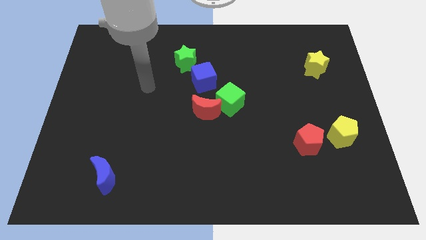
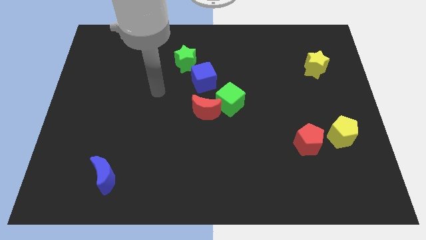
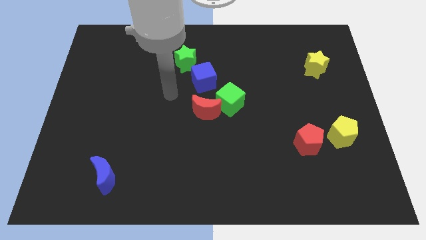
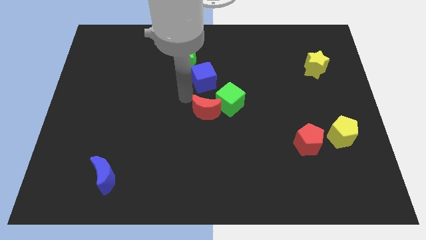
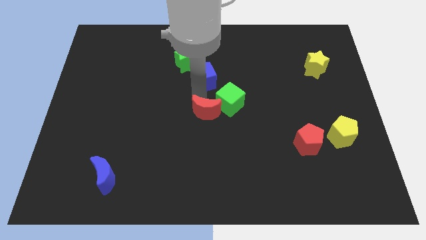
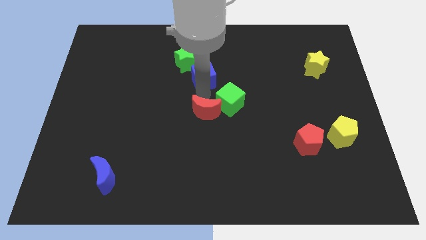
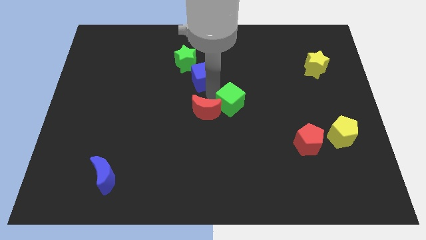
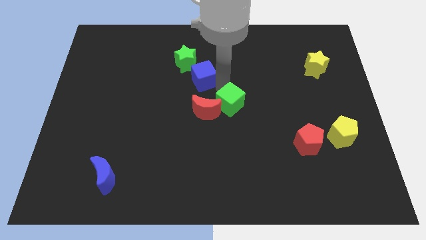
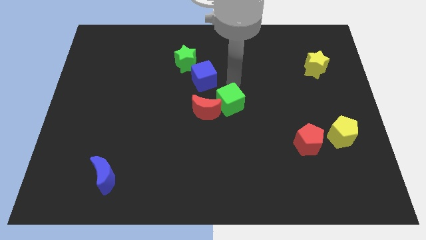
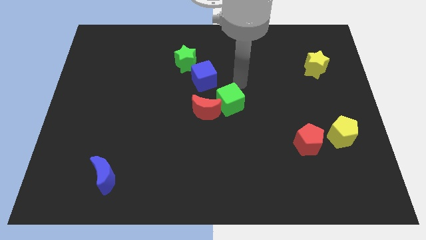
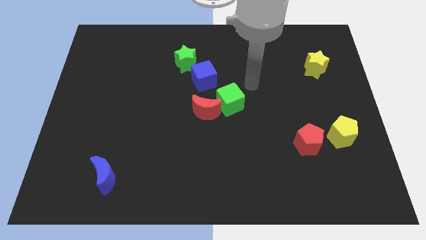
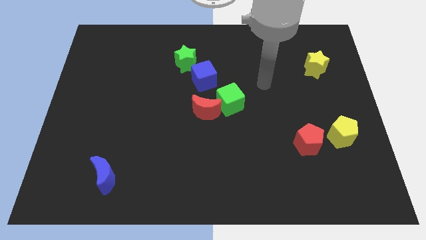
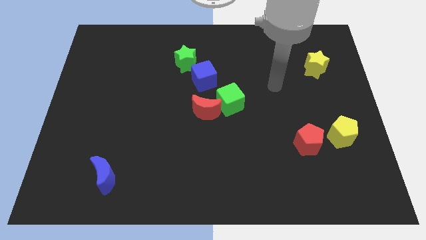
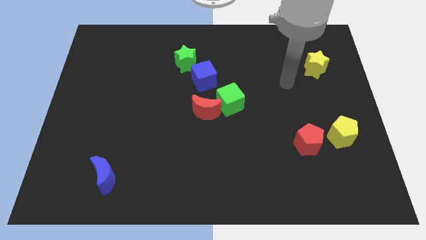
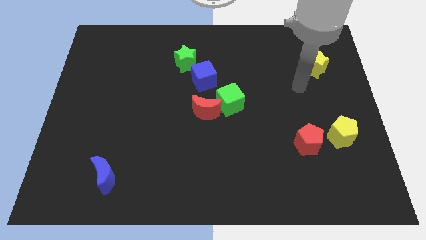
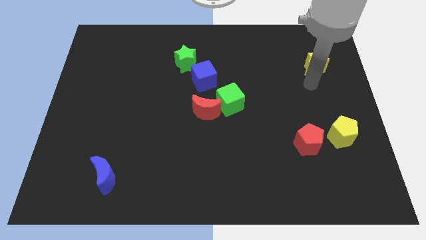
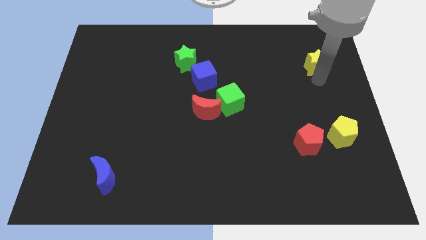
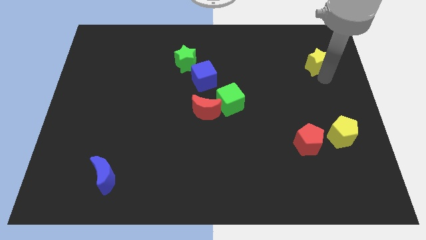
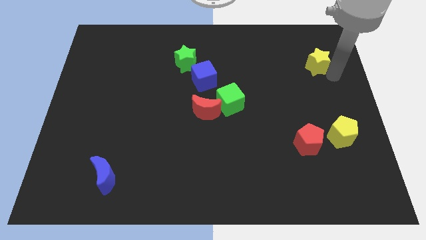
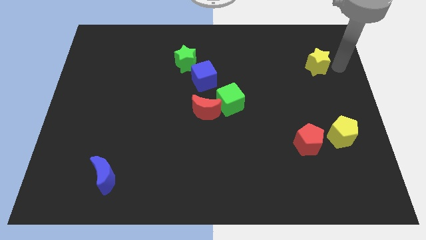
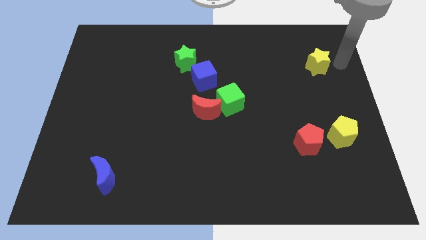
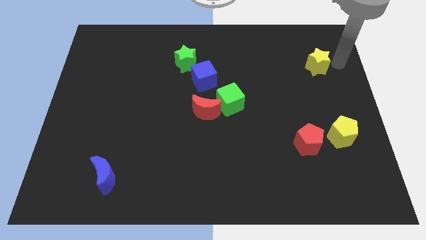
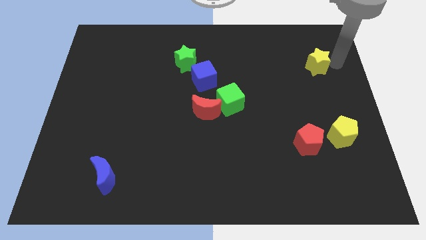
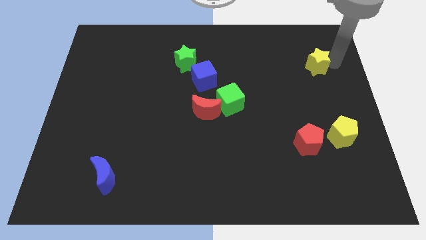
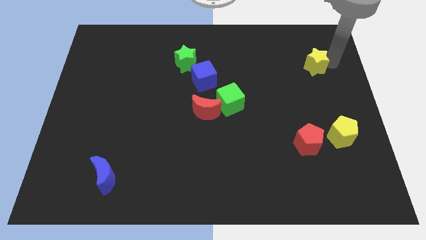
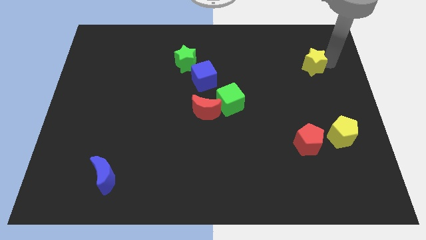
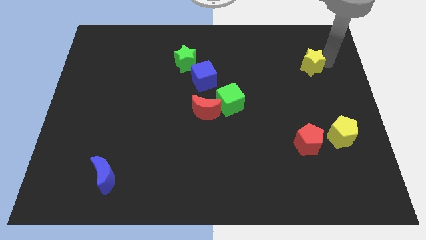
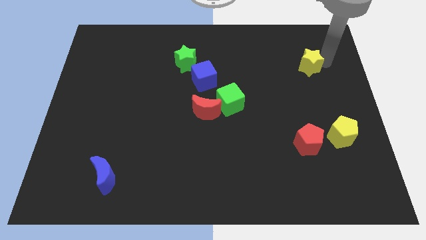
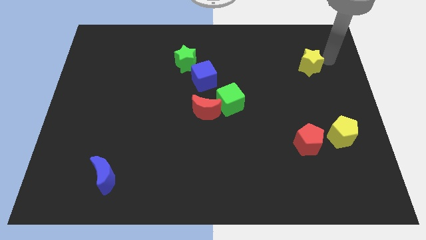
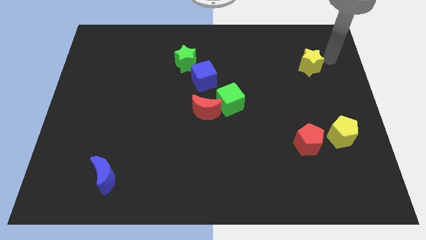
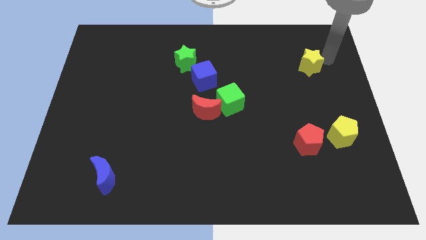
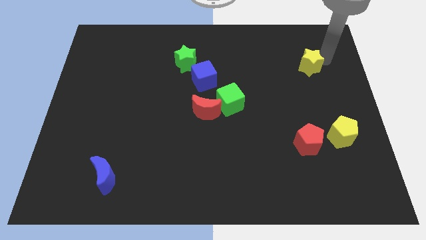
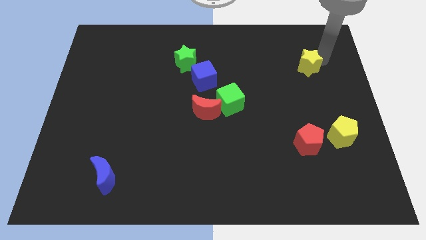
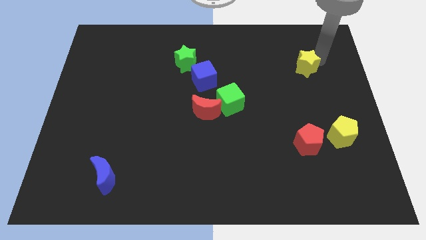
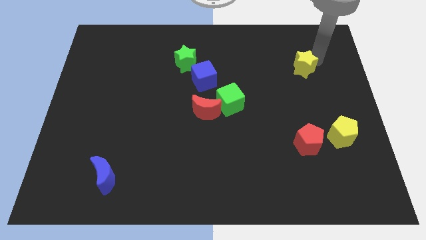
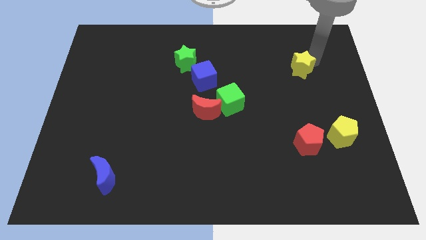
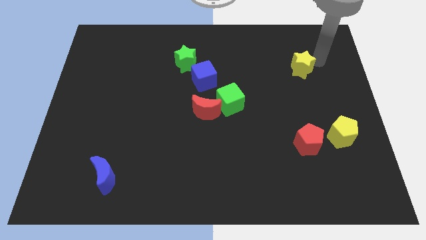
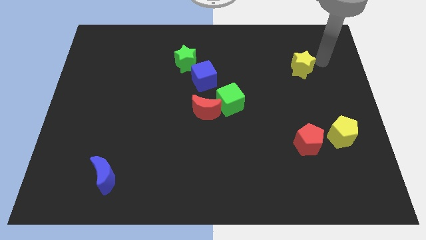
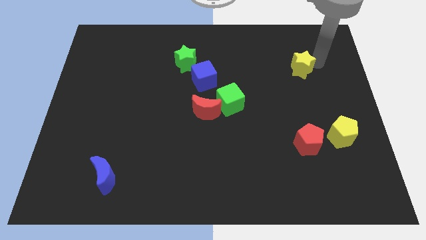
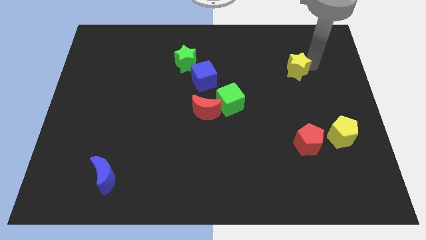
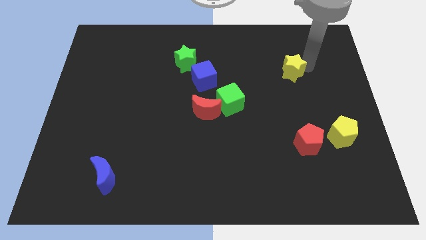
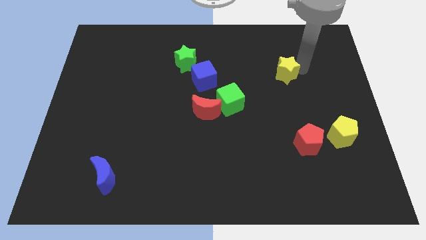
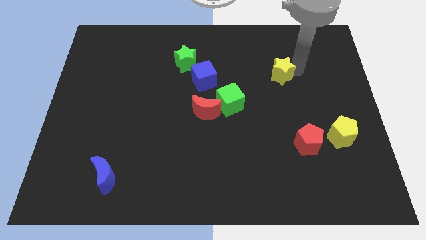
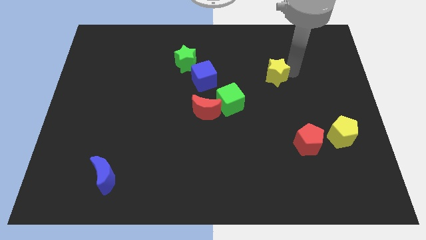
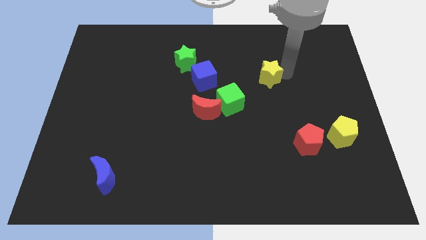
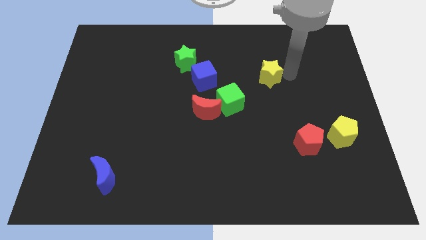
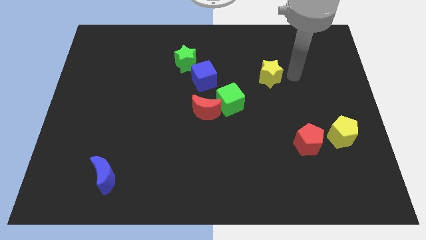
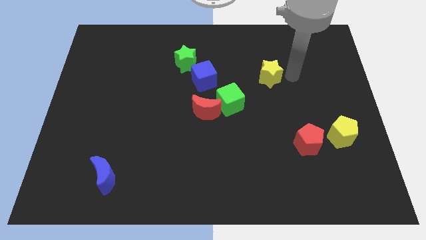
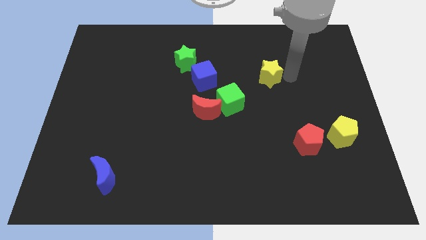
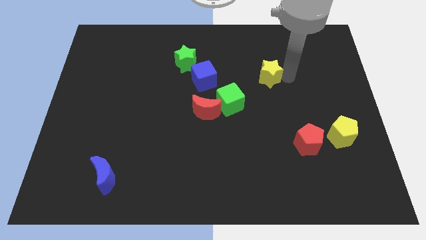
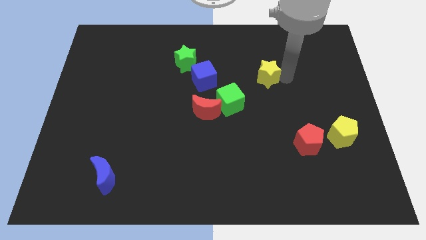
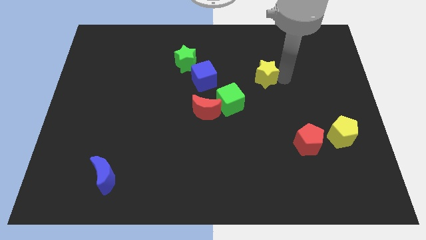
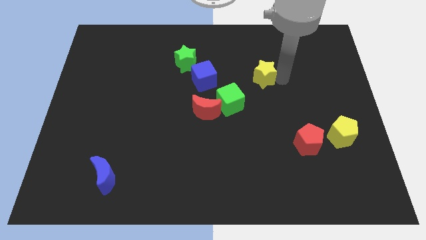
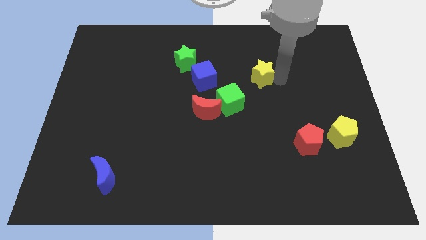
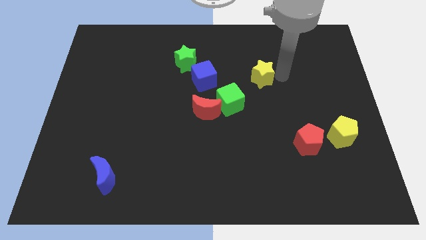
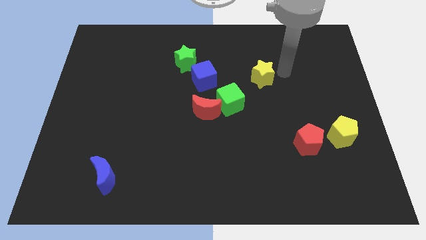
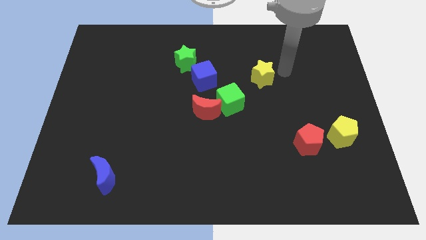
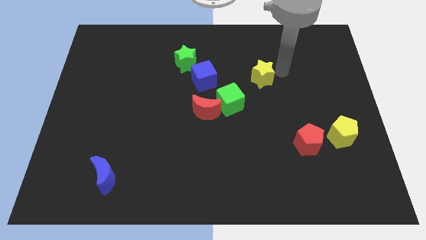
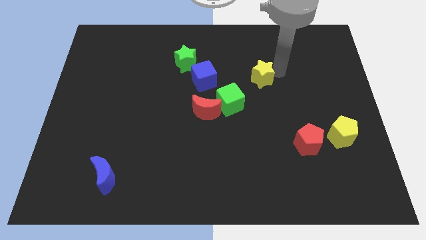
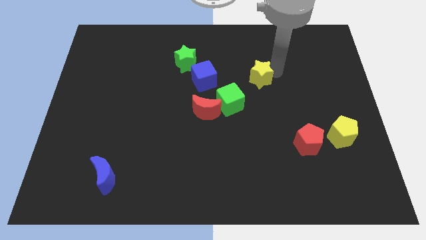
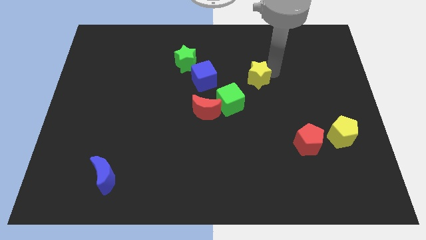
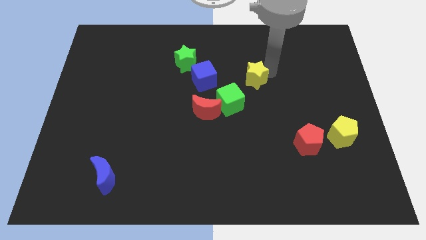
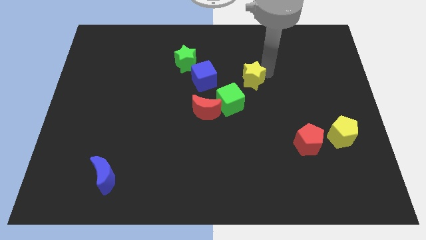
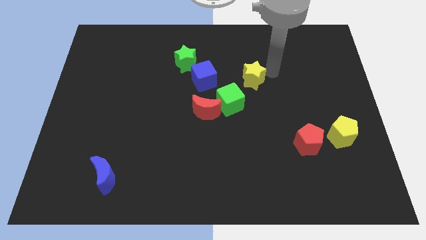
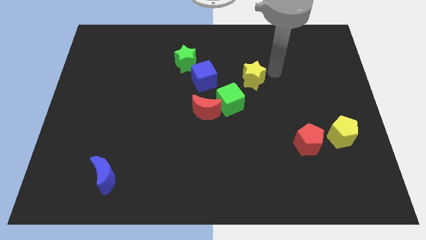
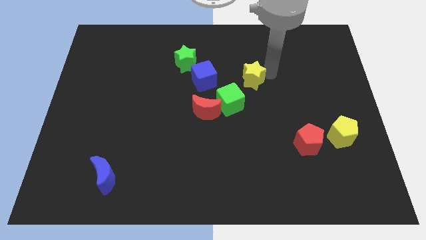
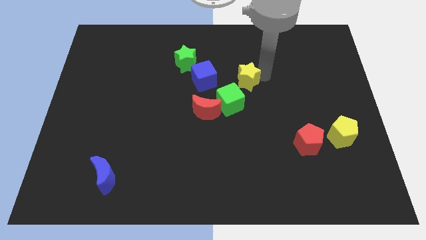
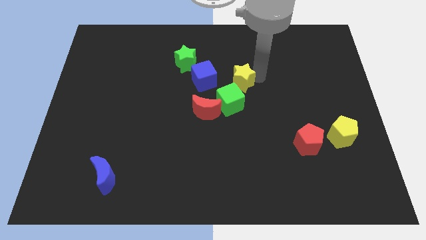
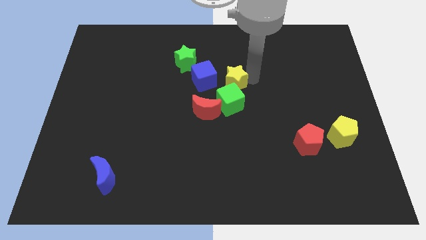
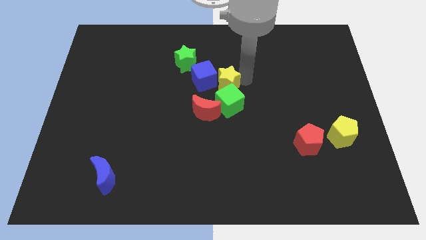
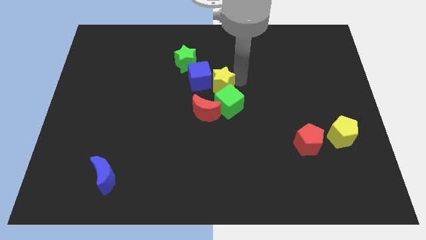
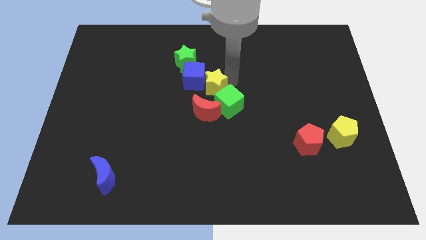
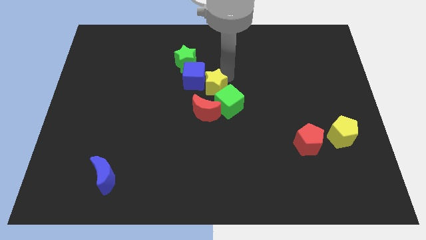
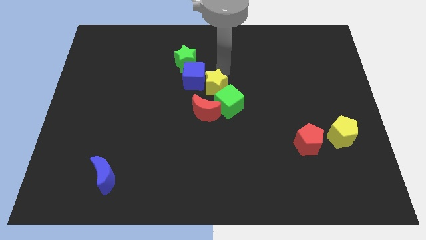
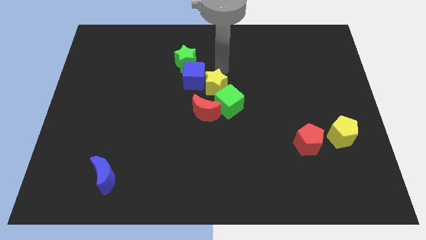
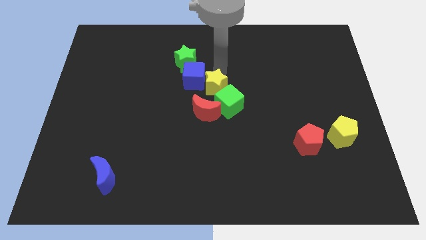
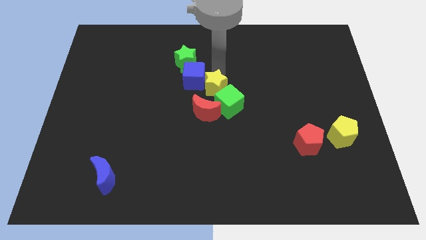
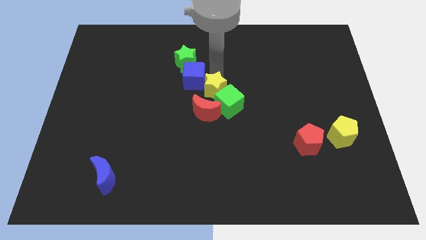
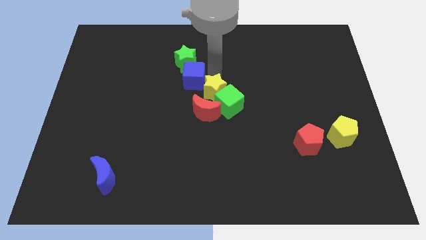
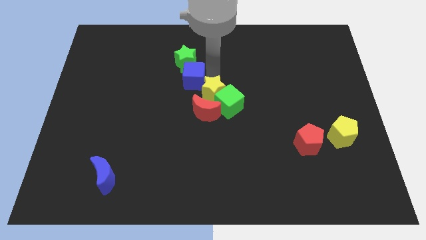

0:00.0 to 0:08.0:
move the yellow star next to the red moon
